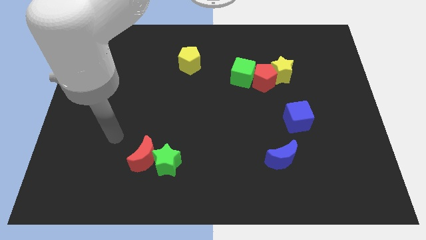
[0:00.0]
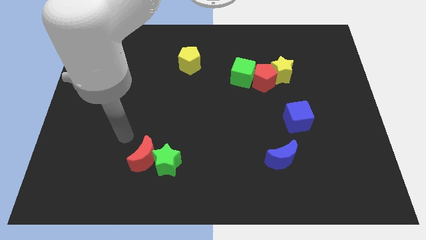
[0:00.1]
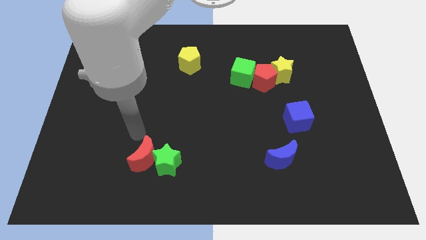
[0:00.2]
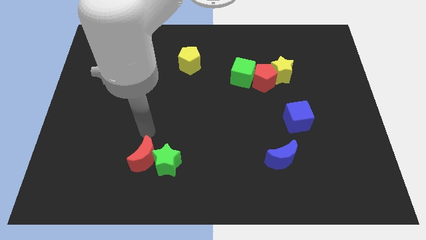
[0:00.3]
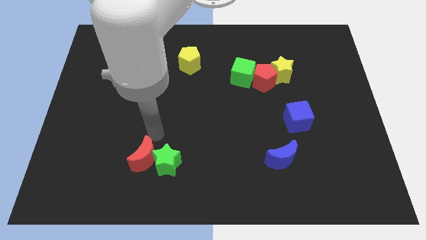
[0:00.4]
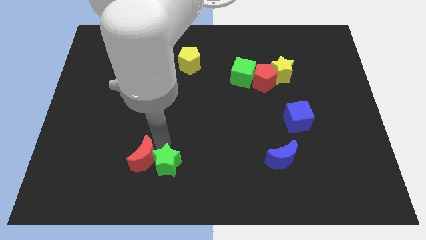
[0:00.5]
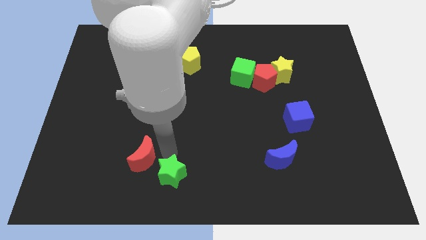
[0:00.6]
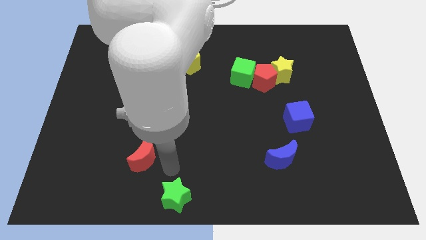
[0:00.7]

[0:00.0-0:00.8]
separate the red moon from the green star

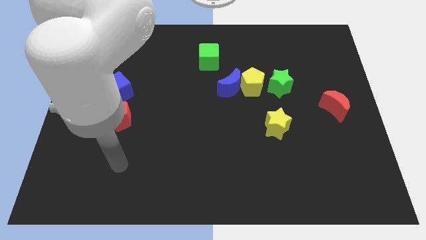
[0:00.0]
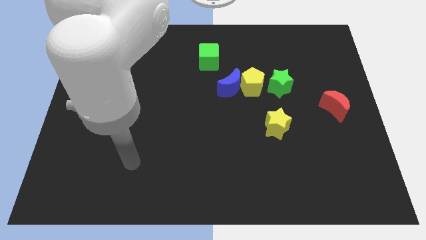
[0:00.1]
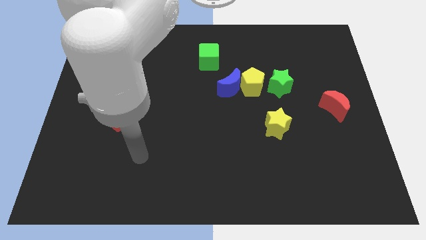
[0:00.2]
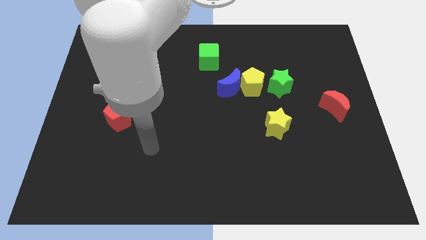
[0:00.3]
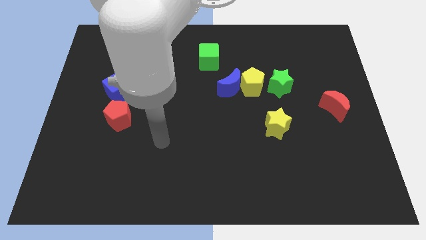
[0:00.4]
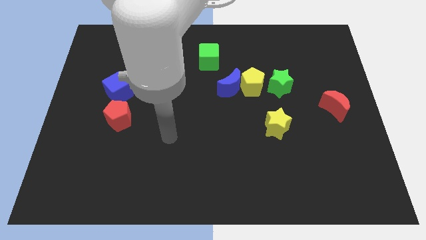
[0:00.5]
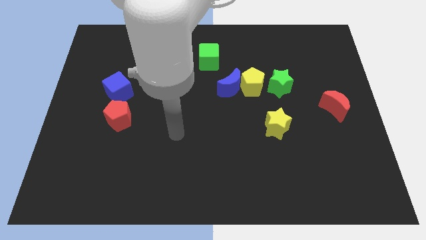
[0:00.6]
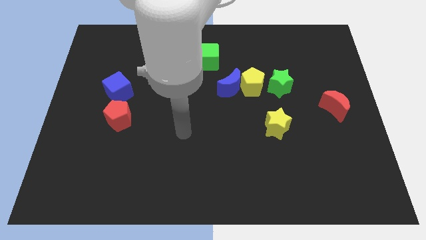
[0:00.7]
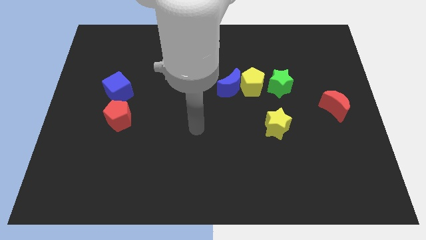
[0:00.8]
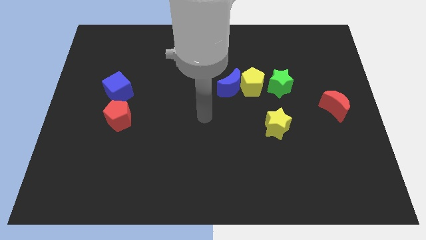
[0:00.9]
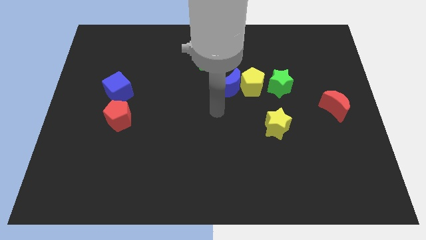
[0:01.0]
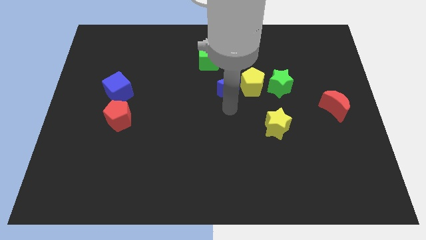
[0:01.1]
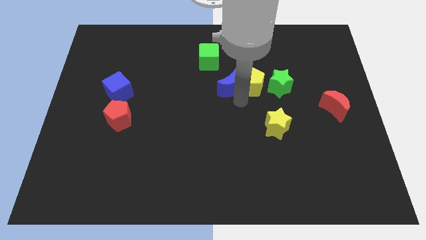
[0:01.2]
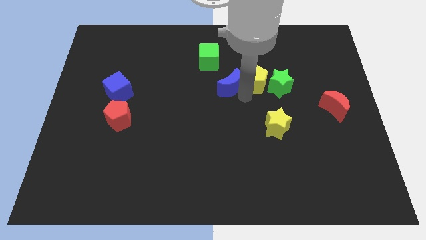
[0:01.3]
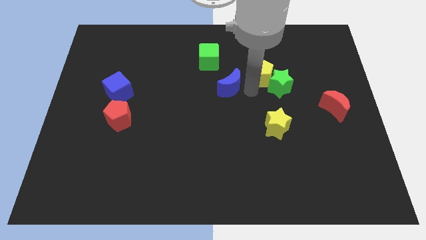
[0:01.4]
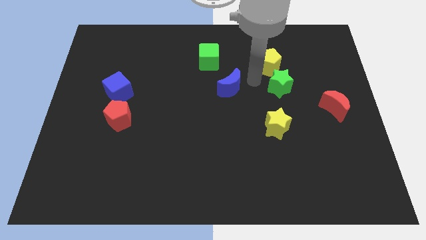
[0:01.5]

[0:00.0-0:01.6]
separate the blue moon from the yellow pentagon

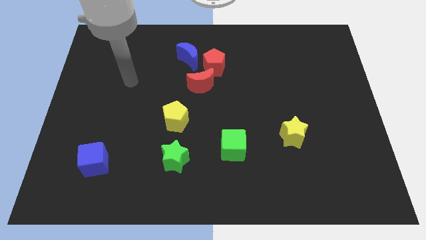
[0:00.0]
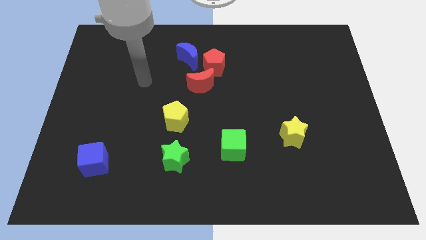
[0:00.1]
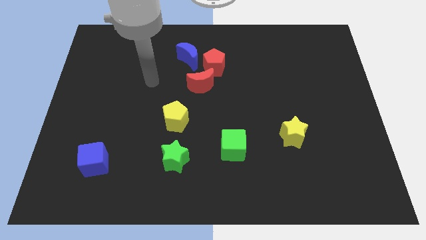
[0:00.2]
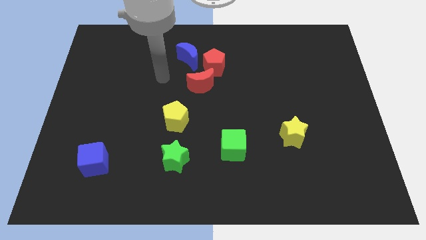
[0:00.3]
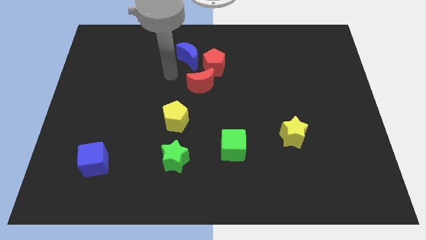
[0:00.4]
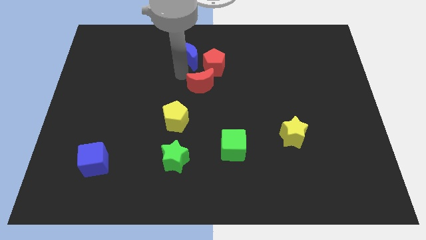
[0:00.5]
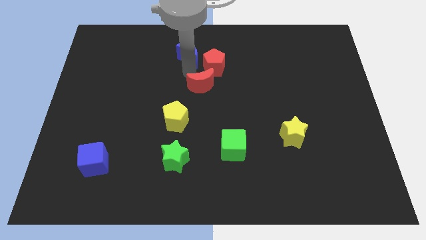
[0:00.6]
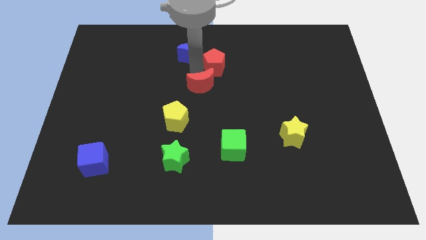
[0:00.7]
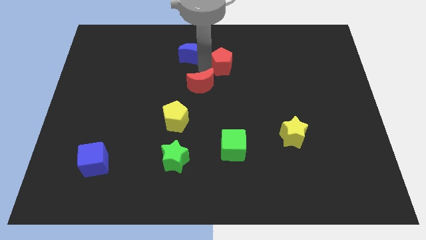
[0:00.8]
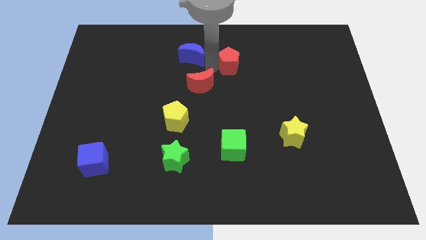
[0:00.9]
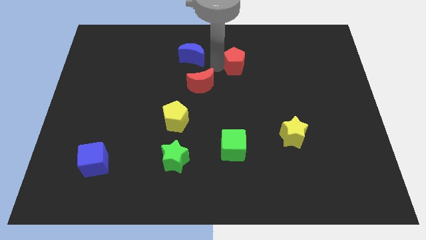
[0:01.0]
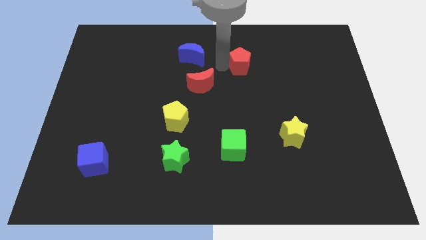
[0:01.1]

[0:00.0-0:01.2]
move the red pentagon away from the blue moon and red moon

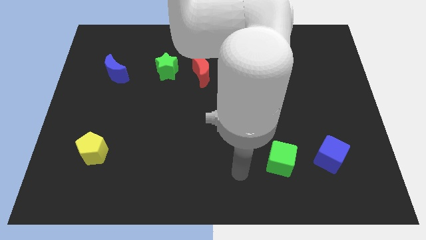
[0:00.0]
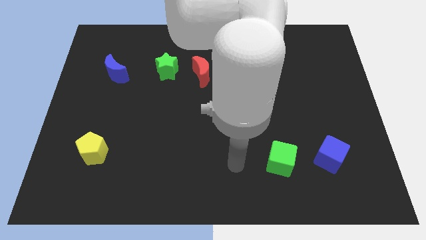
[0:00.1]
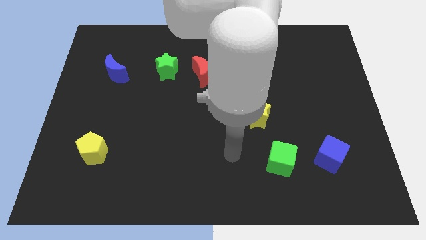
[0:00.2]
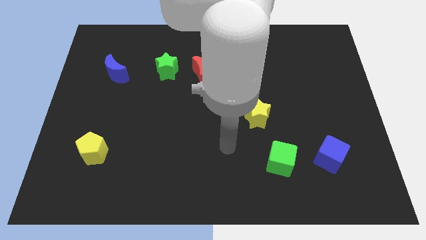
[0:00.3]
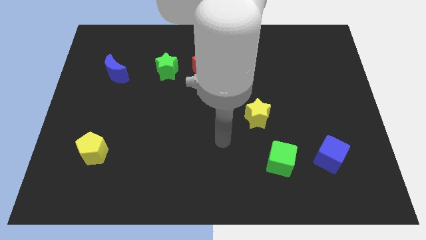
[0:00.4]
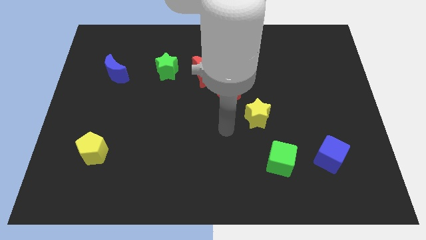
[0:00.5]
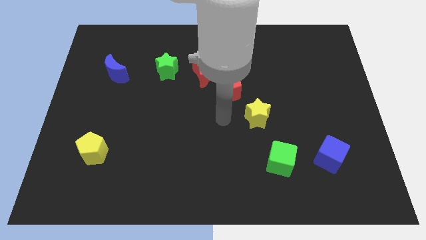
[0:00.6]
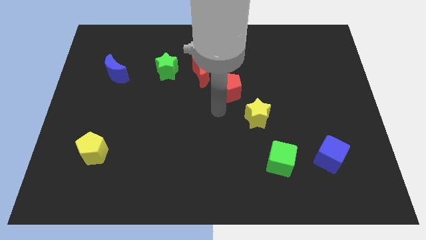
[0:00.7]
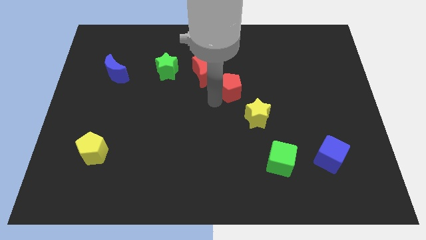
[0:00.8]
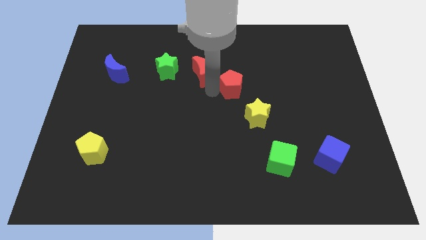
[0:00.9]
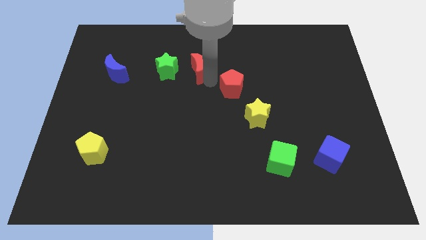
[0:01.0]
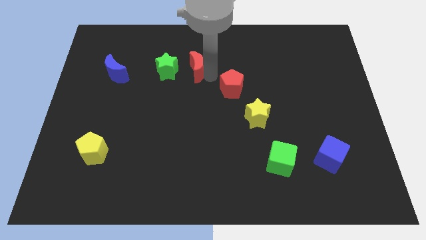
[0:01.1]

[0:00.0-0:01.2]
separate the red pentagon from the red moon

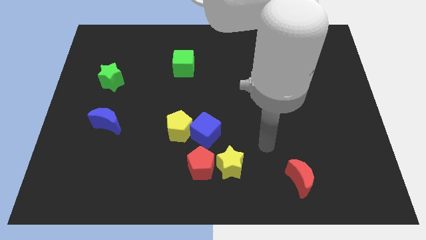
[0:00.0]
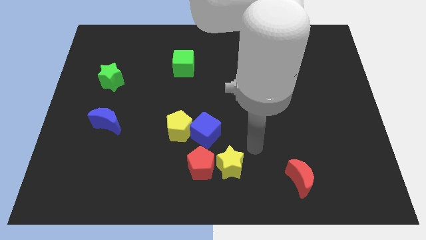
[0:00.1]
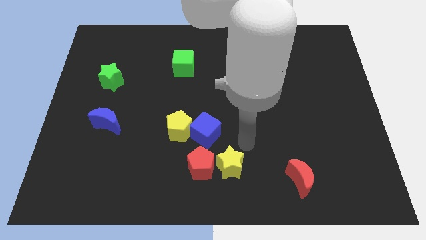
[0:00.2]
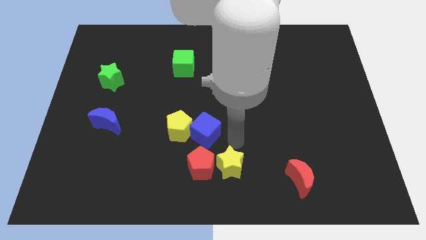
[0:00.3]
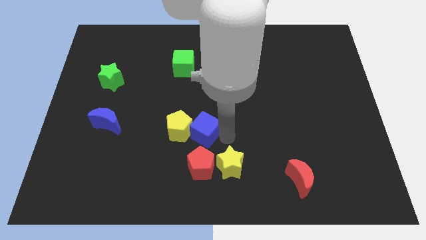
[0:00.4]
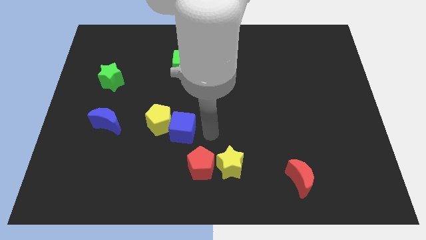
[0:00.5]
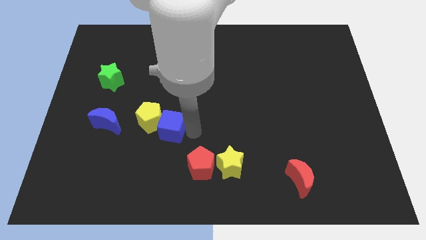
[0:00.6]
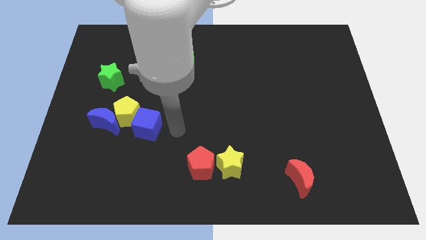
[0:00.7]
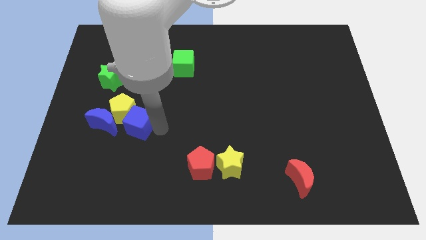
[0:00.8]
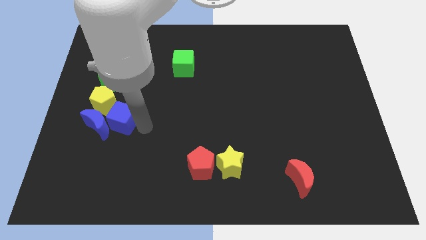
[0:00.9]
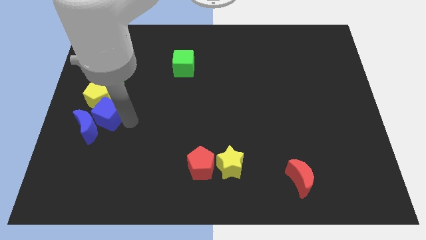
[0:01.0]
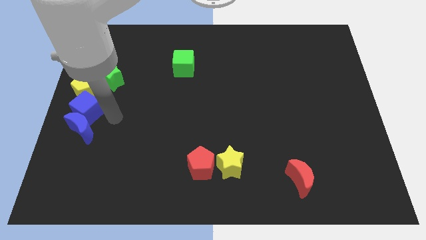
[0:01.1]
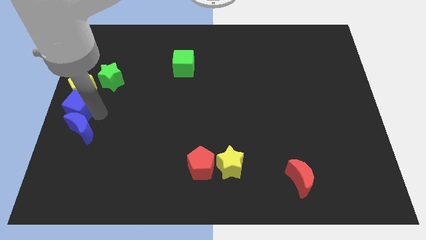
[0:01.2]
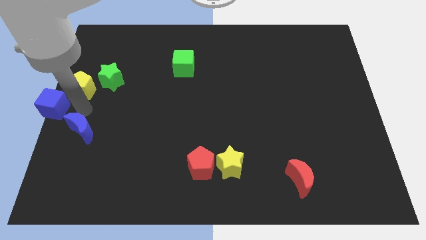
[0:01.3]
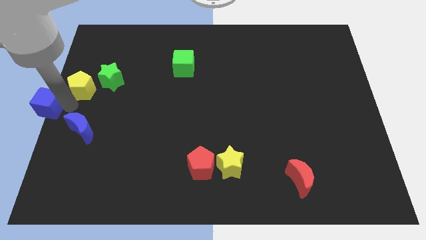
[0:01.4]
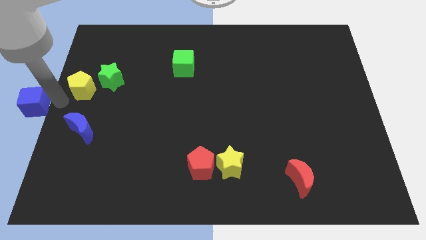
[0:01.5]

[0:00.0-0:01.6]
pull the yellow pentagon apart from the blue cube

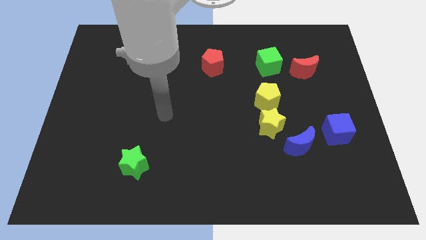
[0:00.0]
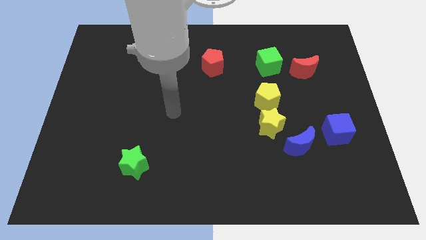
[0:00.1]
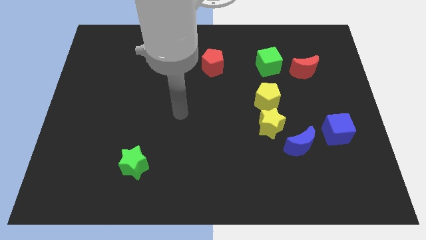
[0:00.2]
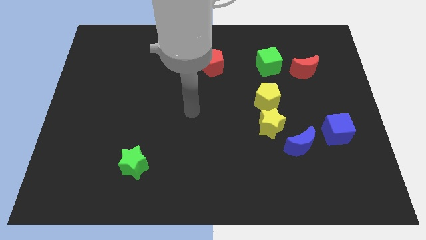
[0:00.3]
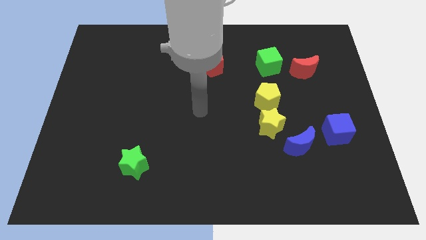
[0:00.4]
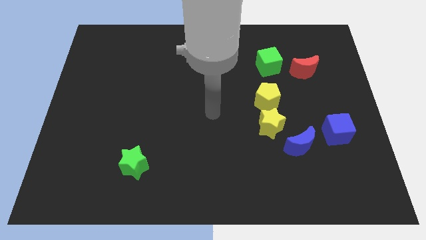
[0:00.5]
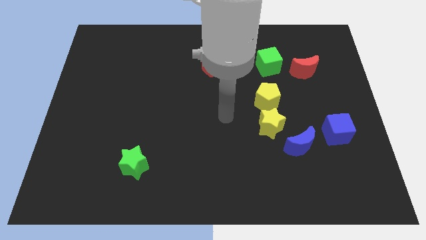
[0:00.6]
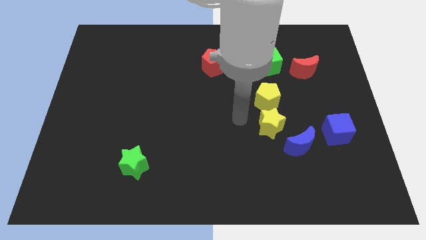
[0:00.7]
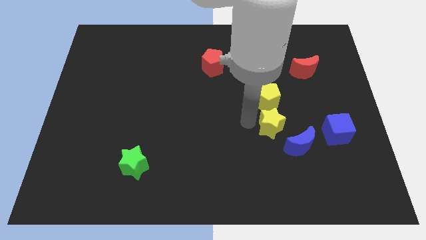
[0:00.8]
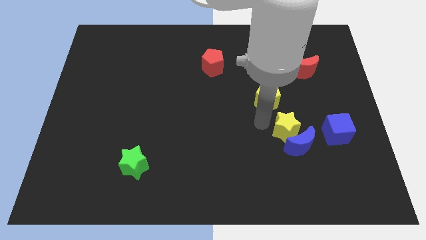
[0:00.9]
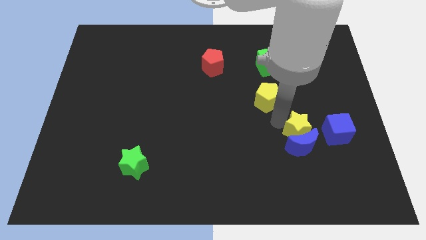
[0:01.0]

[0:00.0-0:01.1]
move the yellow pentagon away from the yellow star

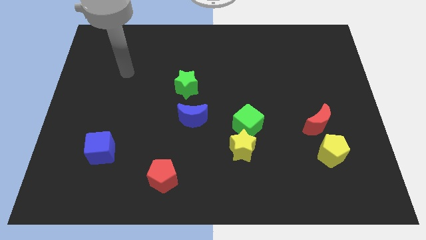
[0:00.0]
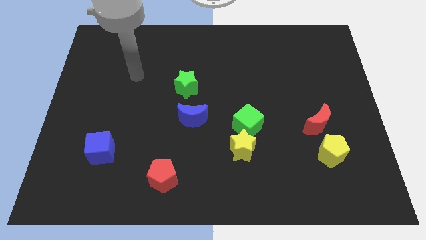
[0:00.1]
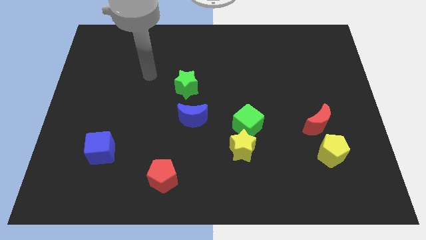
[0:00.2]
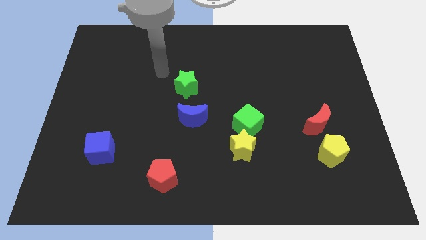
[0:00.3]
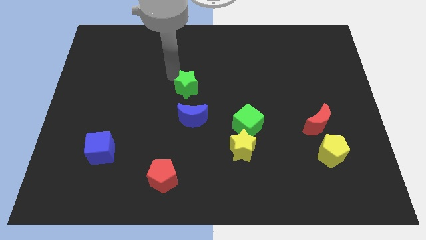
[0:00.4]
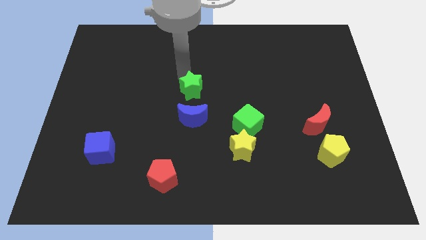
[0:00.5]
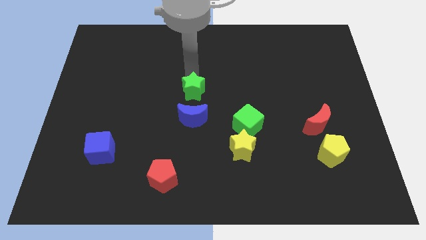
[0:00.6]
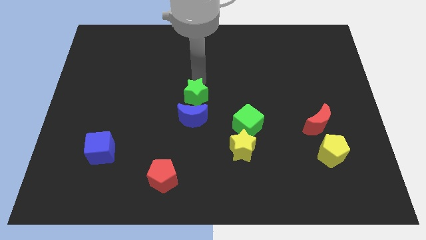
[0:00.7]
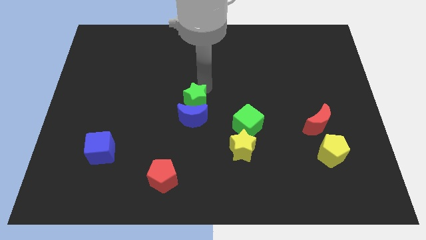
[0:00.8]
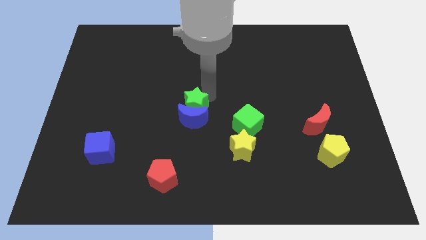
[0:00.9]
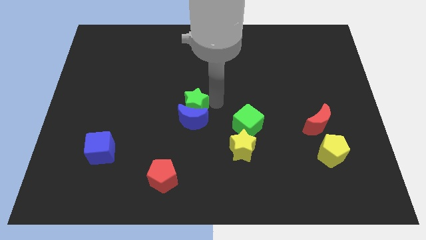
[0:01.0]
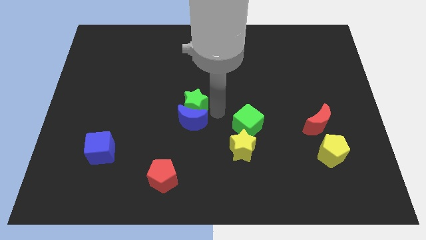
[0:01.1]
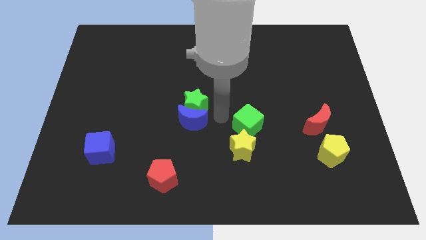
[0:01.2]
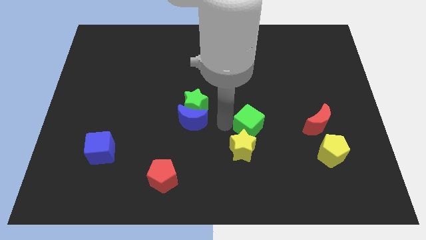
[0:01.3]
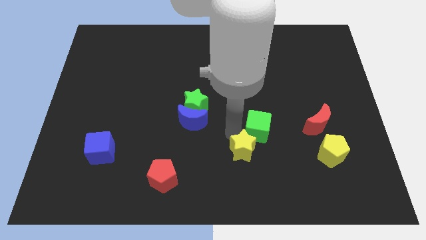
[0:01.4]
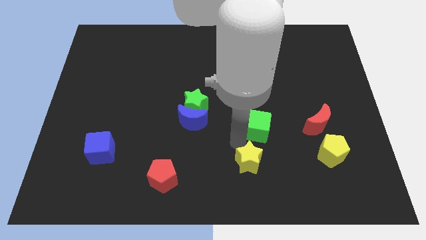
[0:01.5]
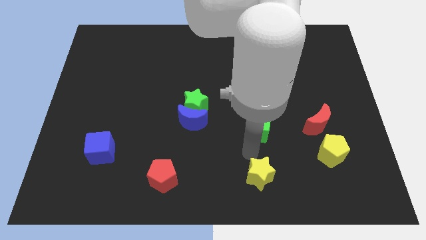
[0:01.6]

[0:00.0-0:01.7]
separate the green cube from the yellow star
